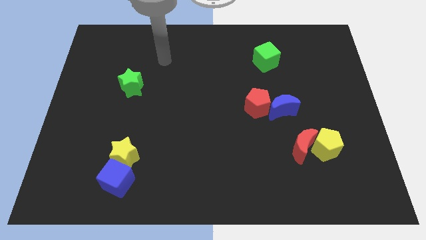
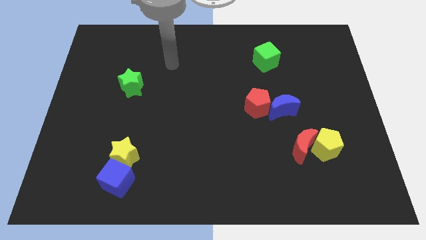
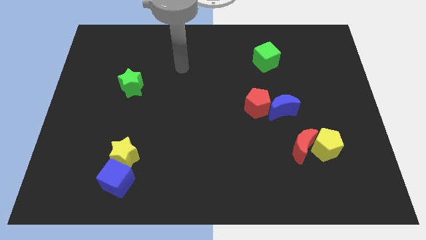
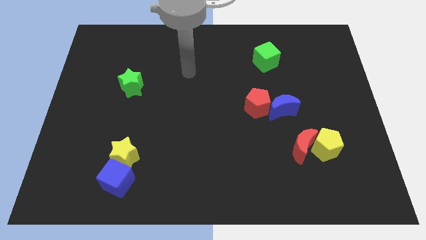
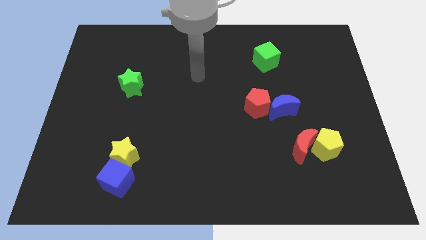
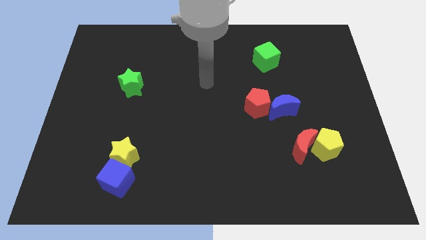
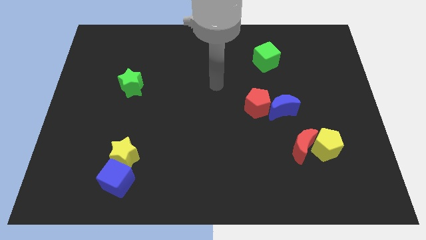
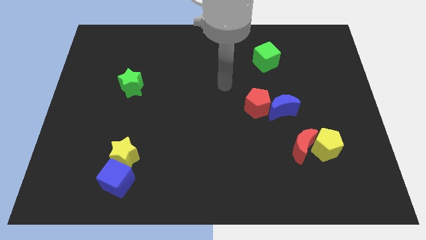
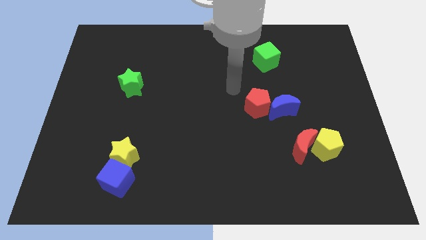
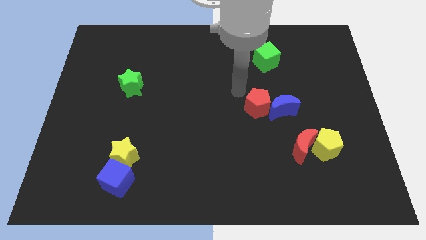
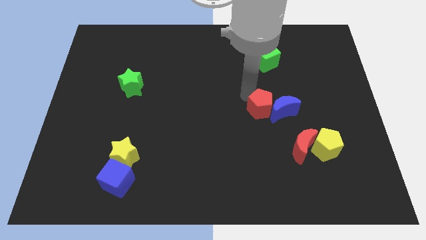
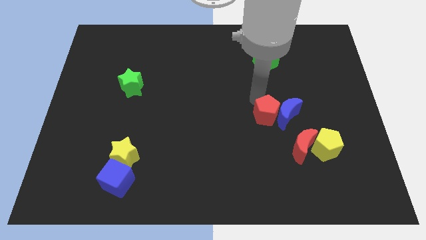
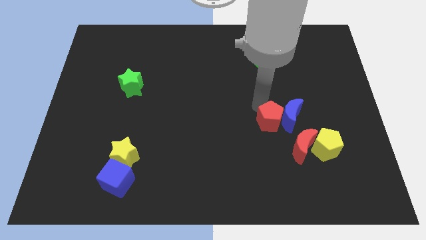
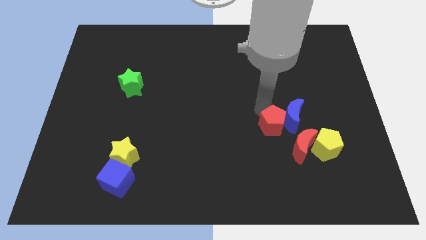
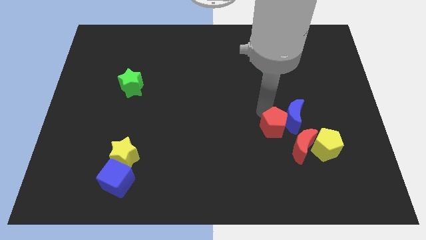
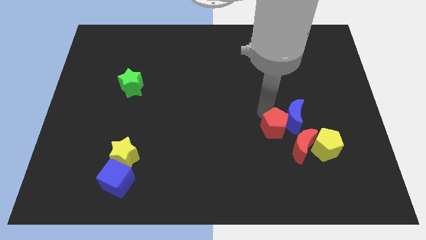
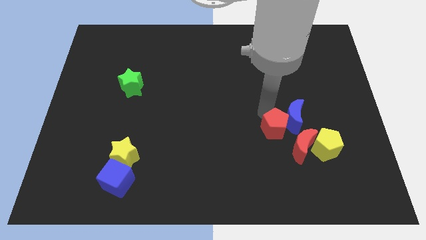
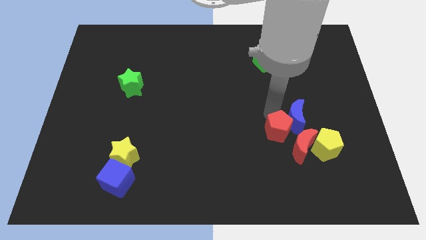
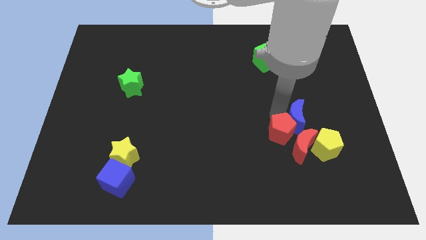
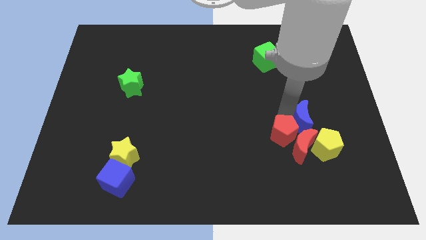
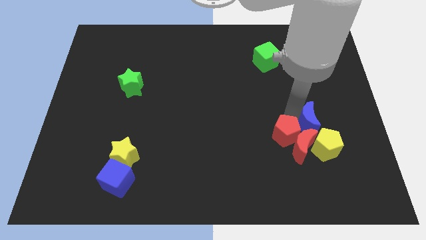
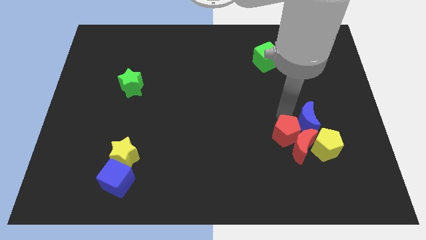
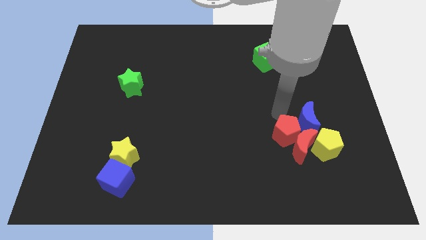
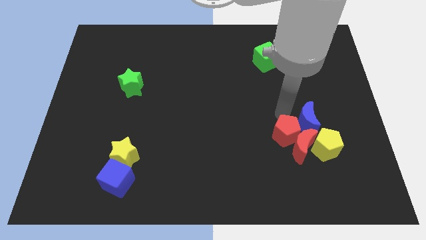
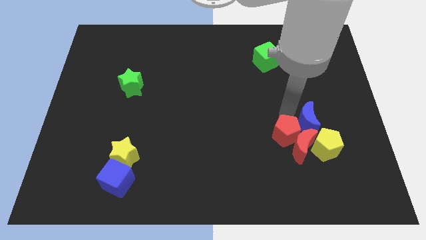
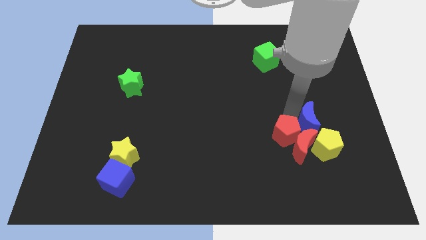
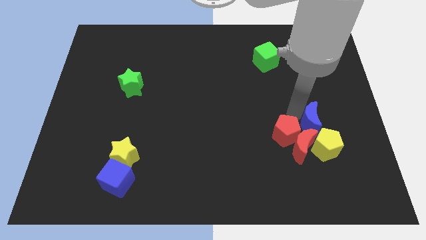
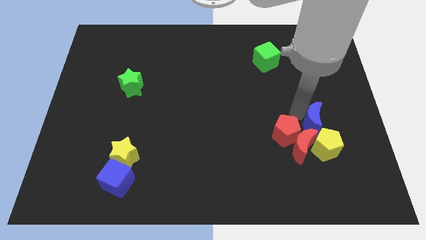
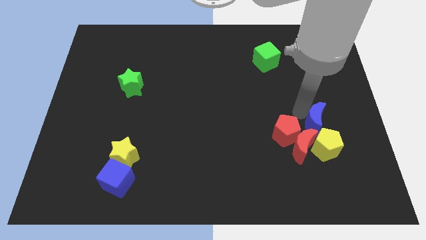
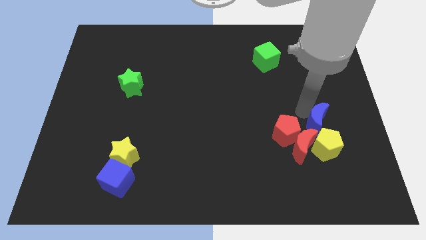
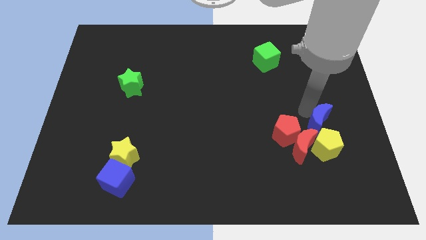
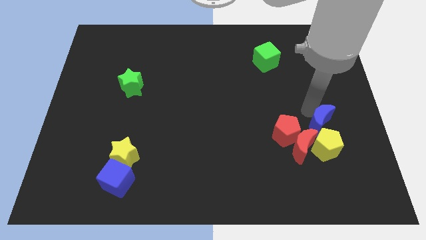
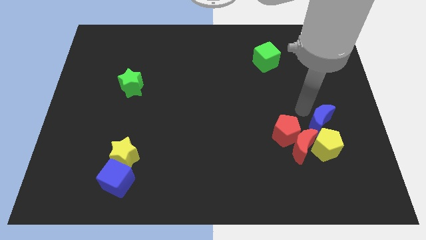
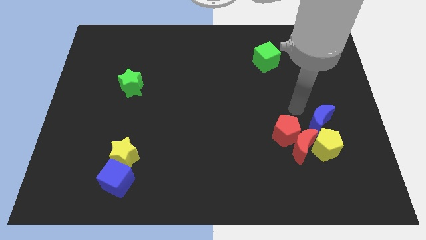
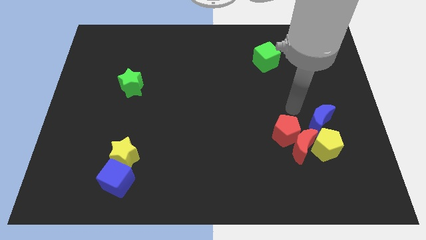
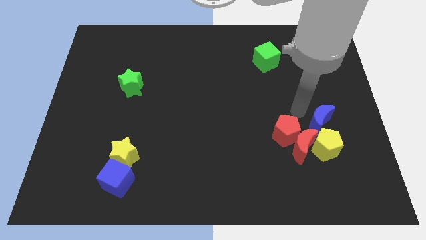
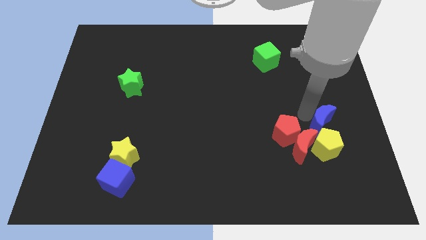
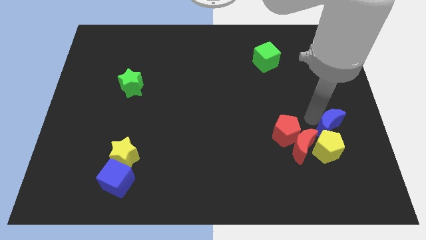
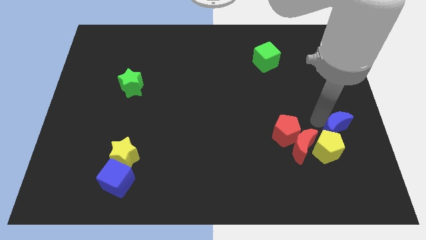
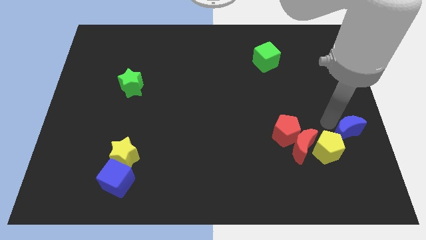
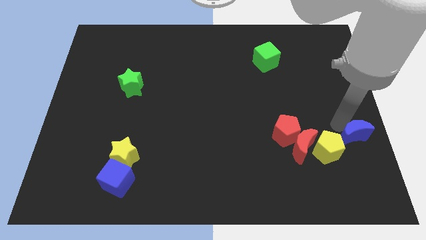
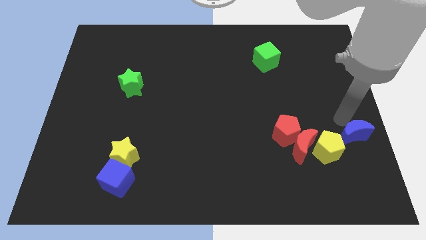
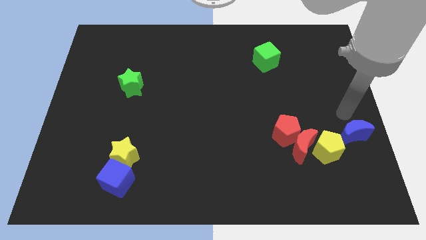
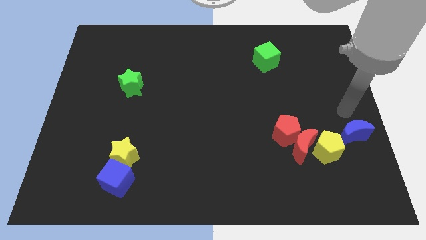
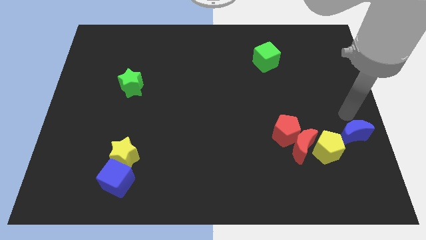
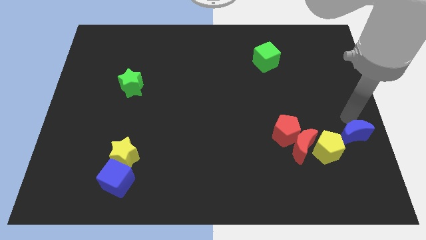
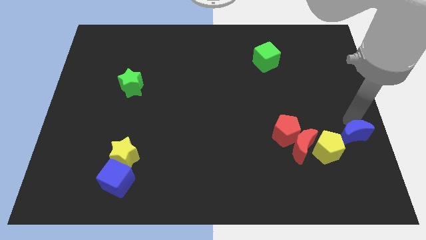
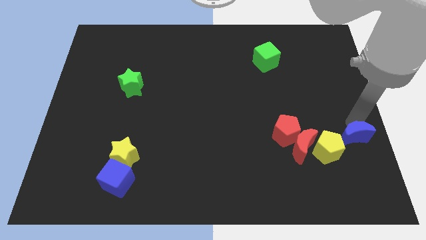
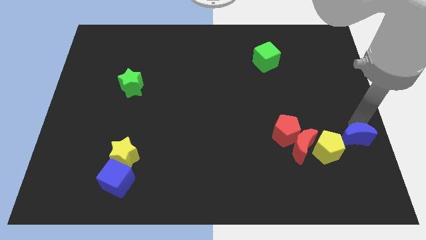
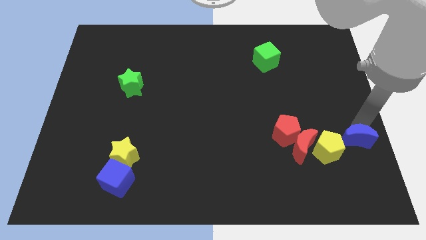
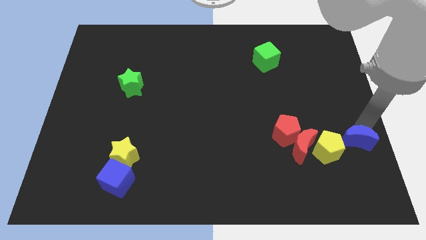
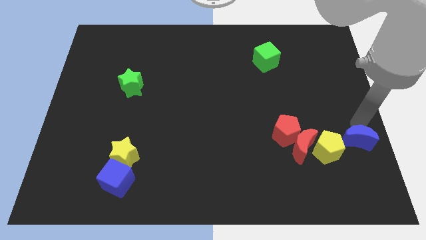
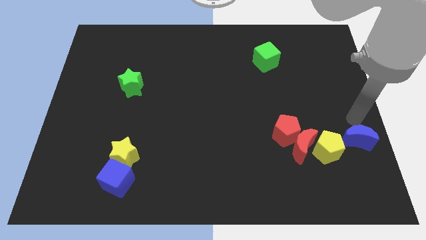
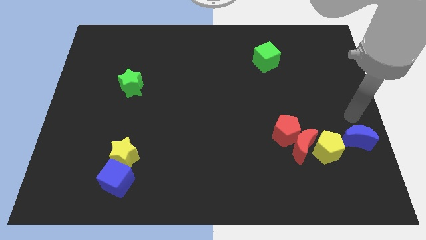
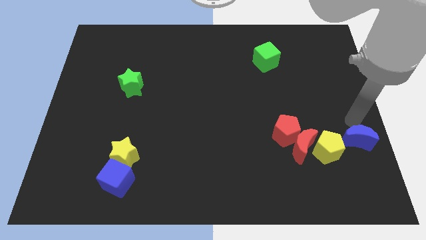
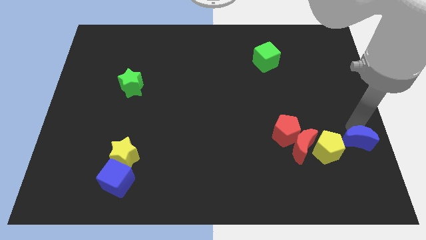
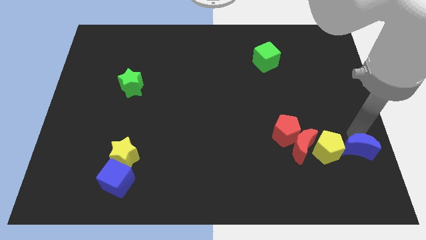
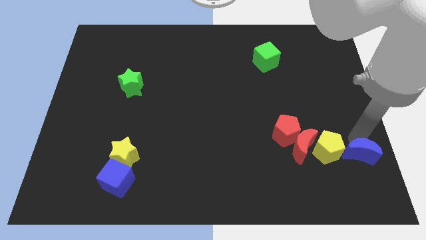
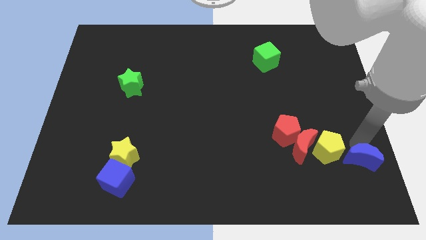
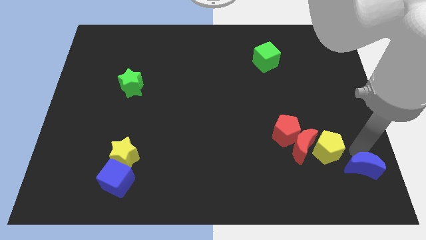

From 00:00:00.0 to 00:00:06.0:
slide the blue moon to the bottom right corner
